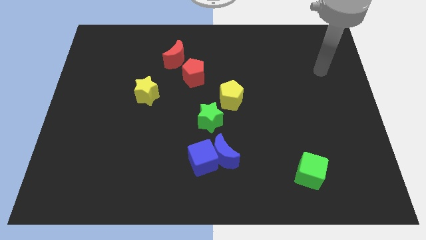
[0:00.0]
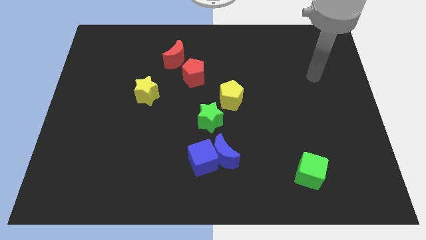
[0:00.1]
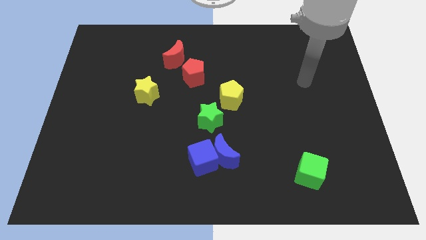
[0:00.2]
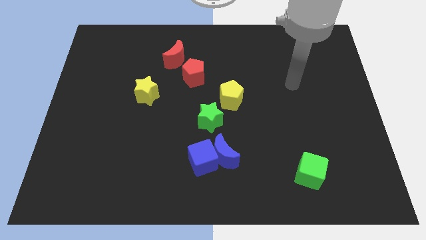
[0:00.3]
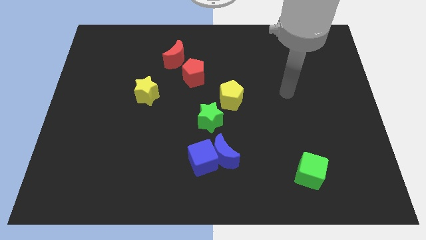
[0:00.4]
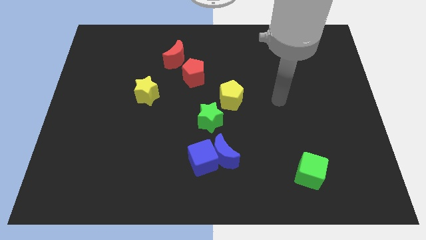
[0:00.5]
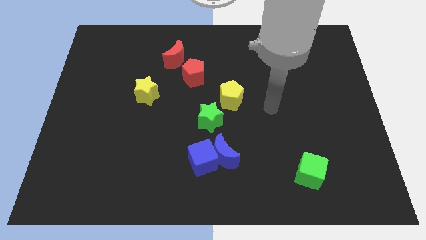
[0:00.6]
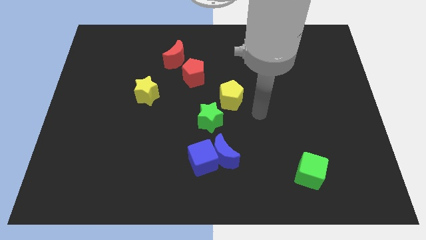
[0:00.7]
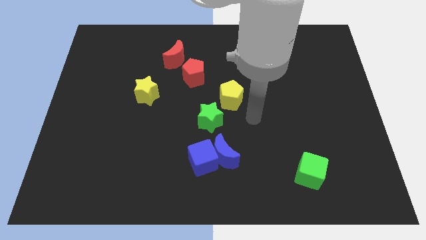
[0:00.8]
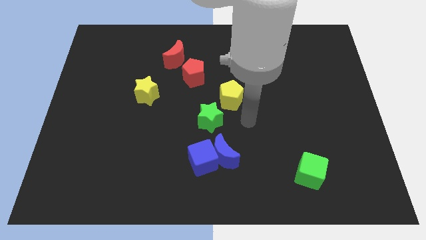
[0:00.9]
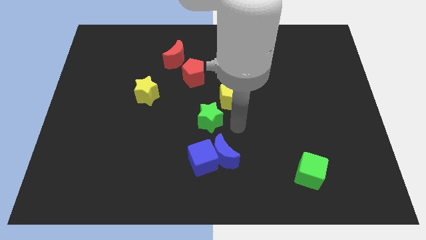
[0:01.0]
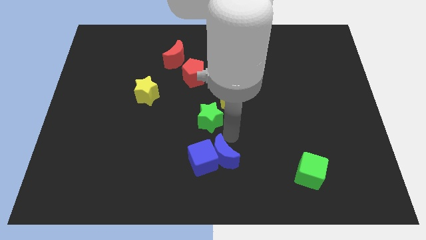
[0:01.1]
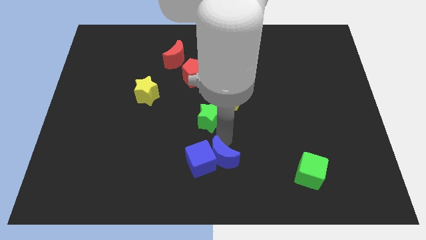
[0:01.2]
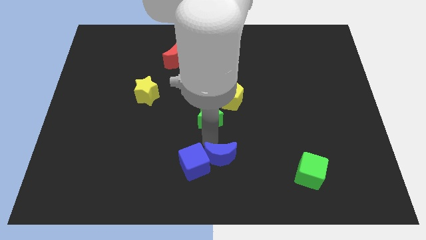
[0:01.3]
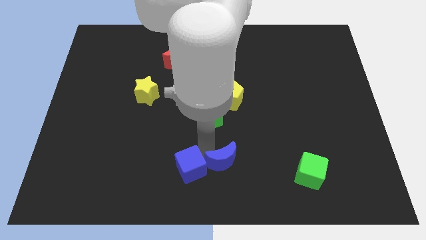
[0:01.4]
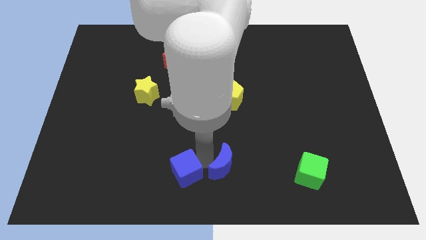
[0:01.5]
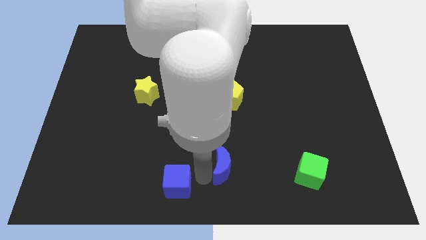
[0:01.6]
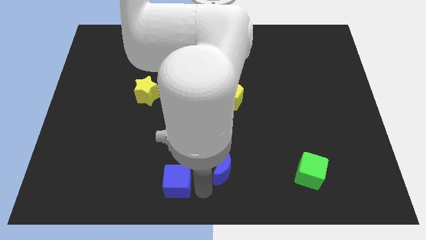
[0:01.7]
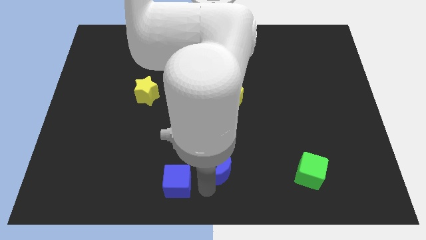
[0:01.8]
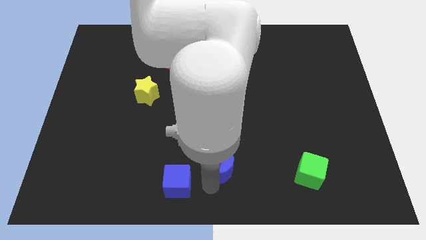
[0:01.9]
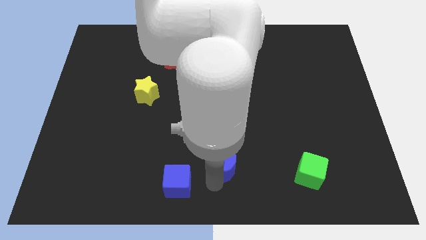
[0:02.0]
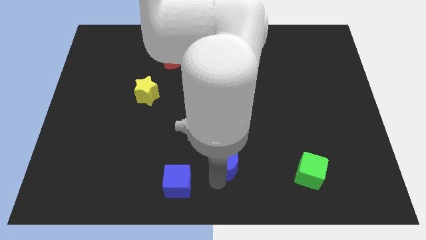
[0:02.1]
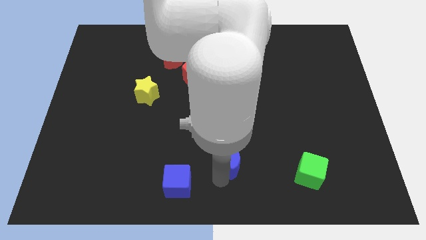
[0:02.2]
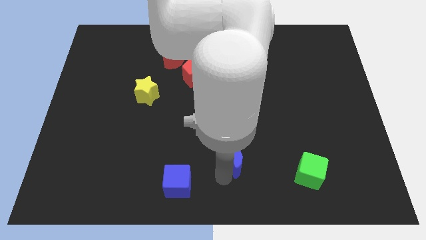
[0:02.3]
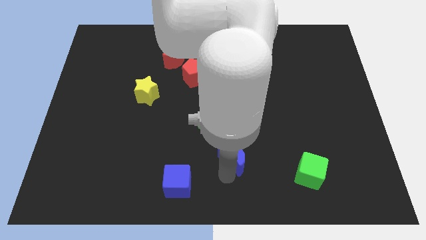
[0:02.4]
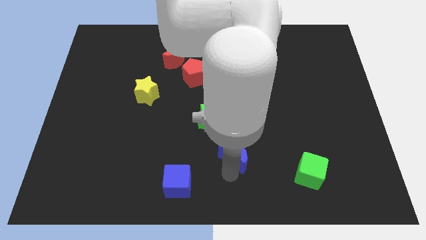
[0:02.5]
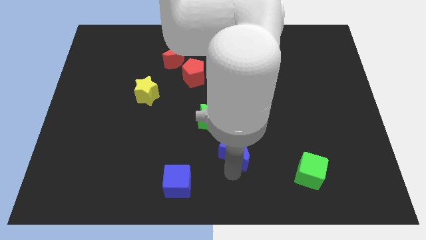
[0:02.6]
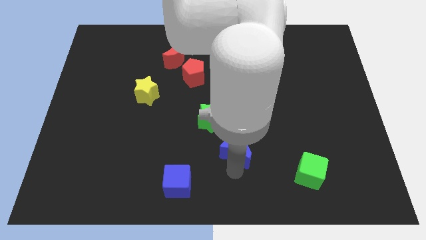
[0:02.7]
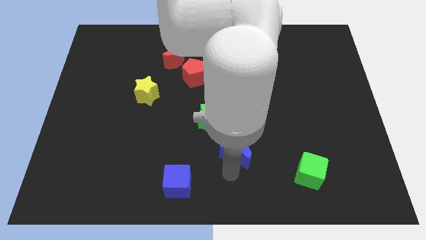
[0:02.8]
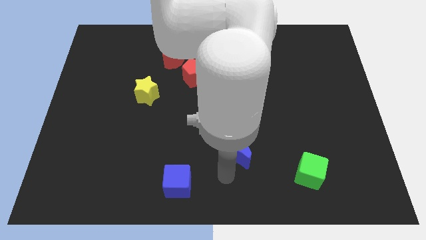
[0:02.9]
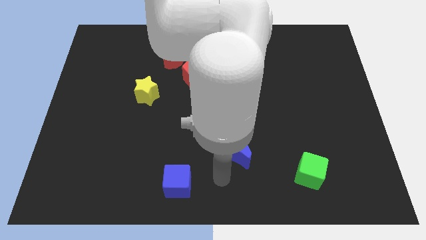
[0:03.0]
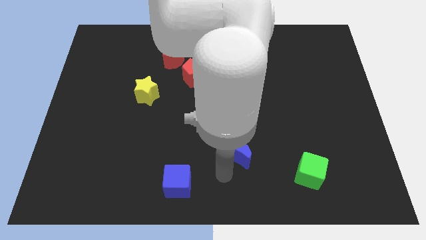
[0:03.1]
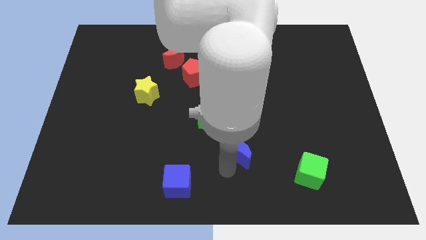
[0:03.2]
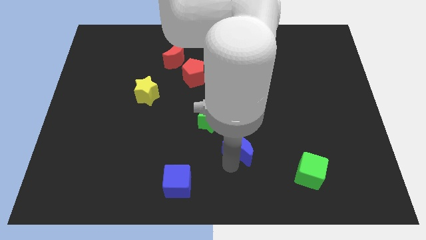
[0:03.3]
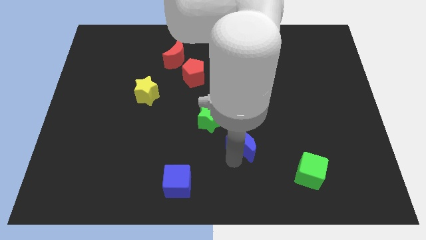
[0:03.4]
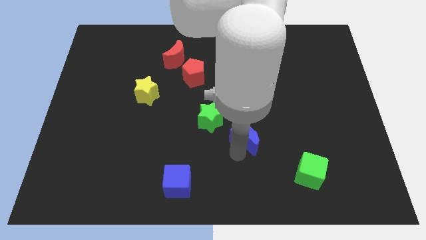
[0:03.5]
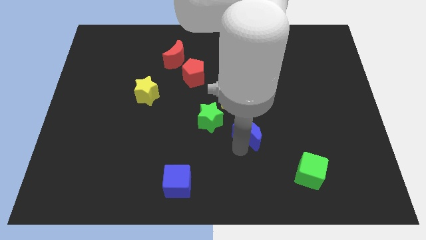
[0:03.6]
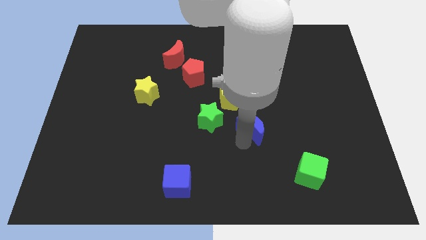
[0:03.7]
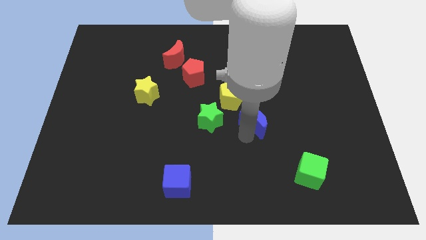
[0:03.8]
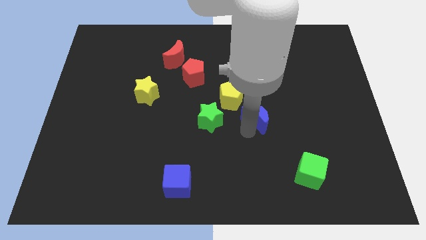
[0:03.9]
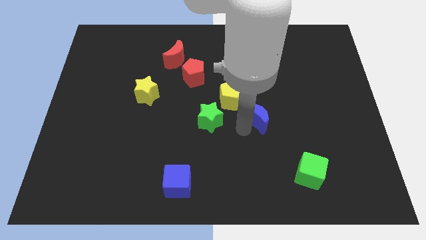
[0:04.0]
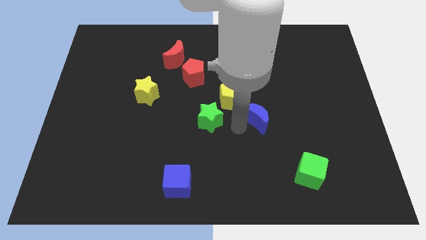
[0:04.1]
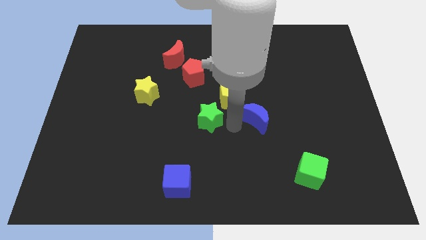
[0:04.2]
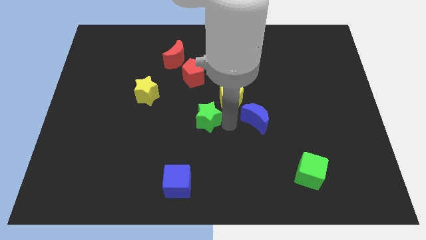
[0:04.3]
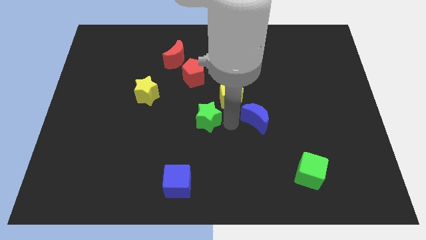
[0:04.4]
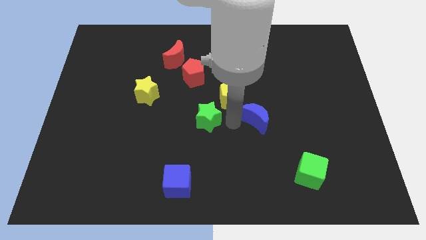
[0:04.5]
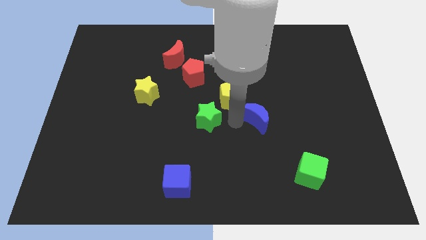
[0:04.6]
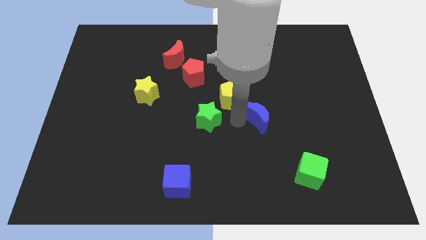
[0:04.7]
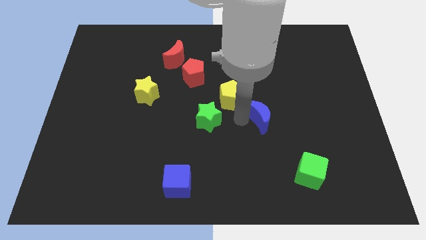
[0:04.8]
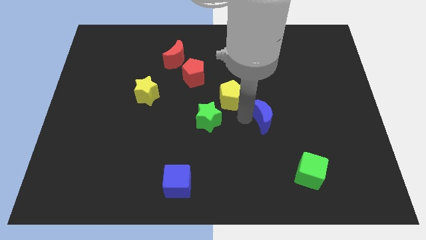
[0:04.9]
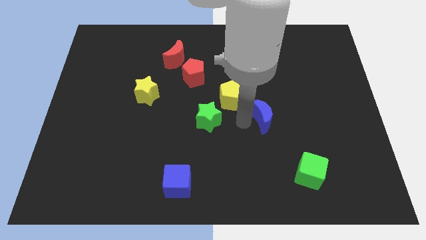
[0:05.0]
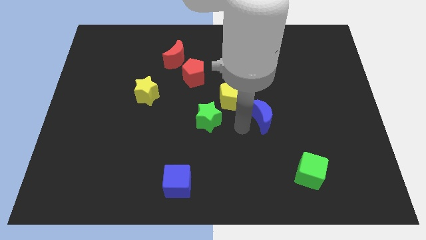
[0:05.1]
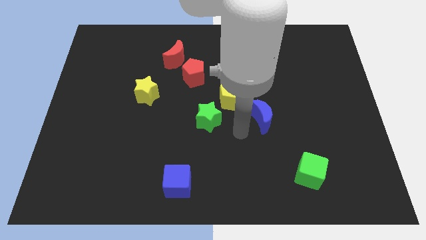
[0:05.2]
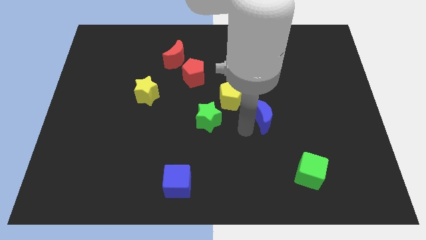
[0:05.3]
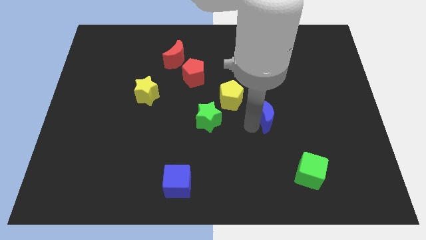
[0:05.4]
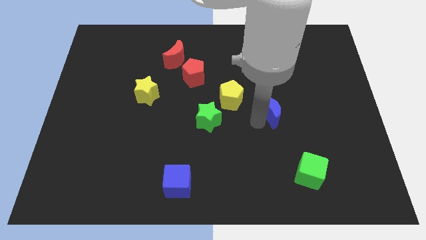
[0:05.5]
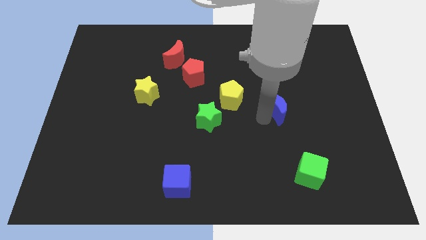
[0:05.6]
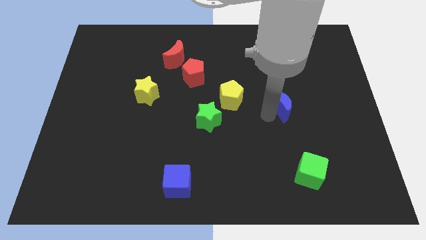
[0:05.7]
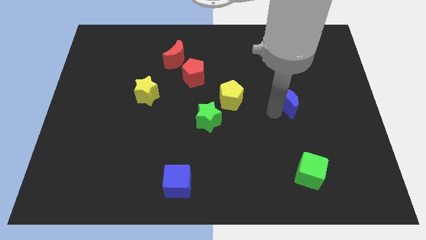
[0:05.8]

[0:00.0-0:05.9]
slide the blue moon up and right

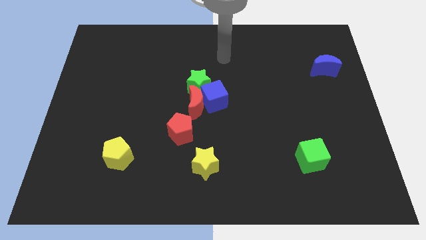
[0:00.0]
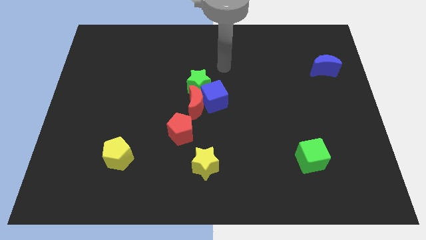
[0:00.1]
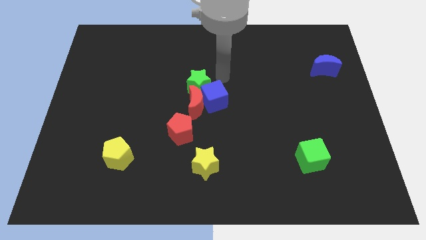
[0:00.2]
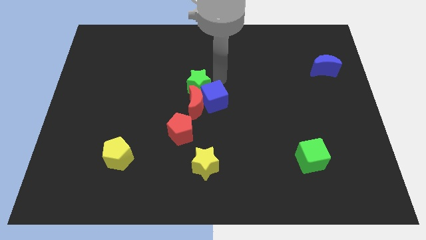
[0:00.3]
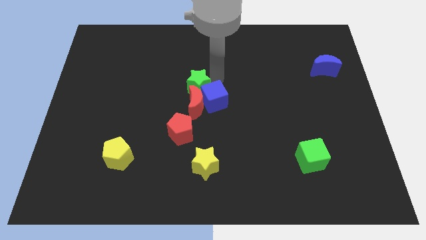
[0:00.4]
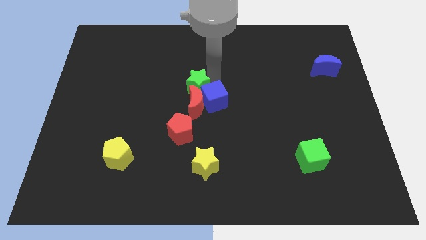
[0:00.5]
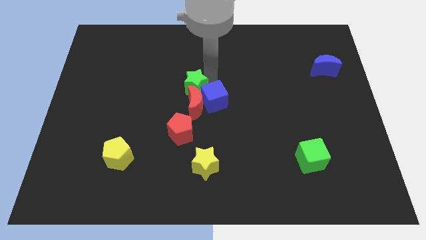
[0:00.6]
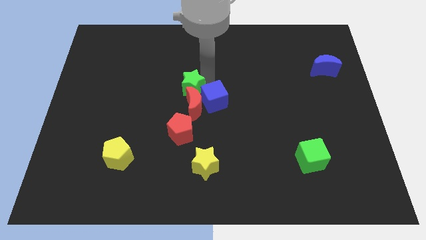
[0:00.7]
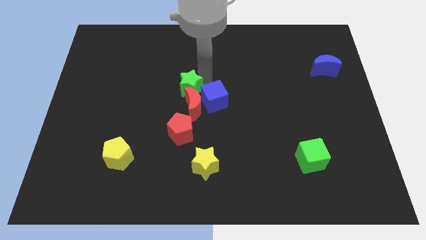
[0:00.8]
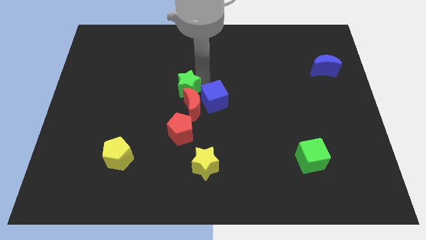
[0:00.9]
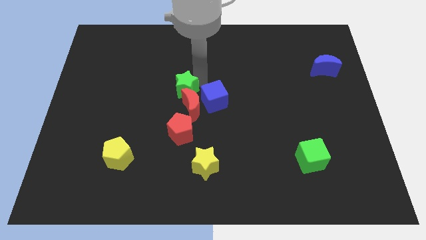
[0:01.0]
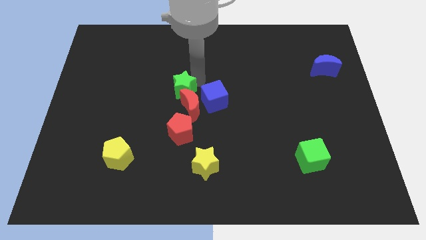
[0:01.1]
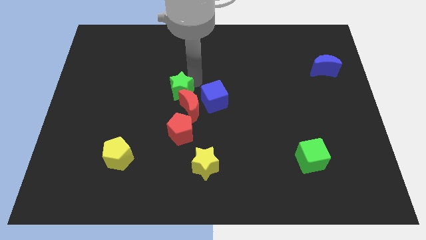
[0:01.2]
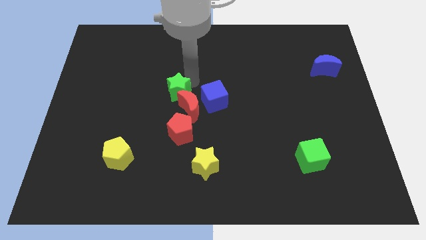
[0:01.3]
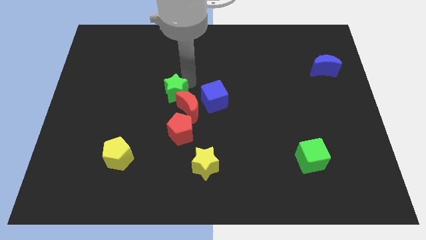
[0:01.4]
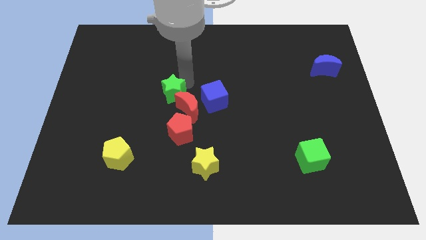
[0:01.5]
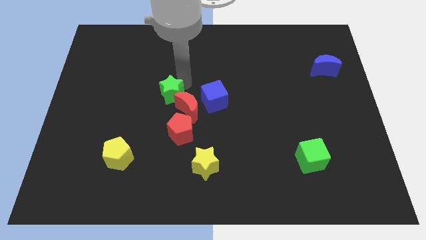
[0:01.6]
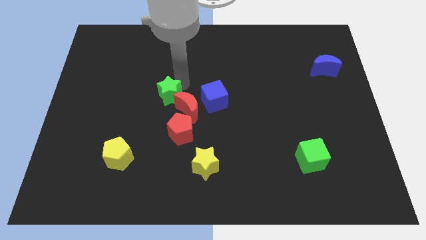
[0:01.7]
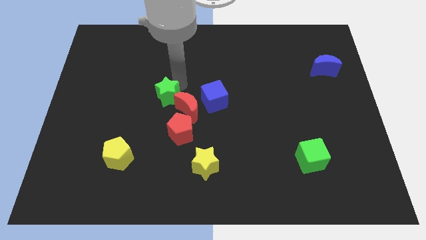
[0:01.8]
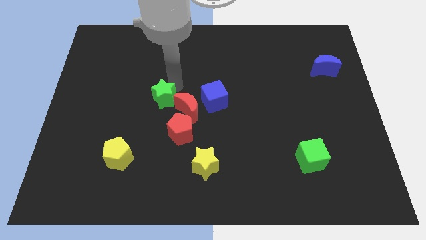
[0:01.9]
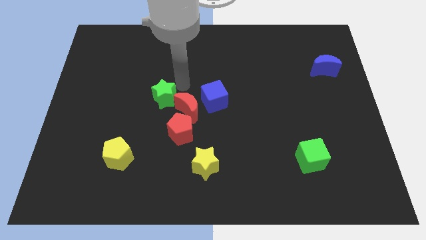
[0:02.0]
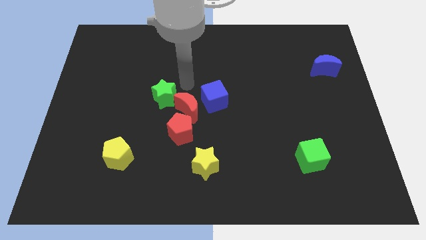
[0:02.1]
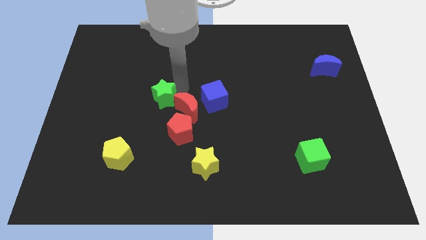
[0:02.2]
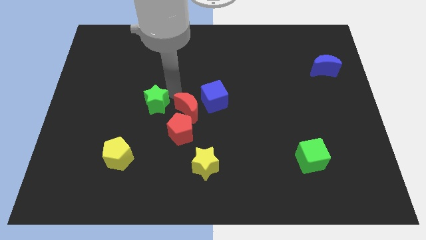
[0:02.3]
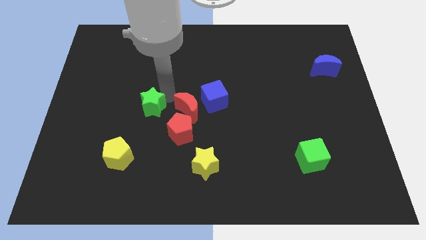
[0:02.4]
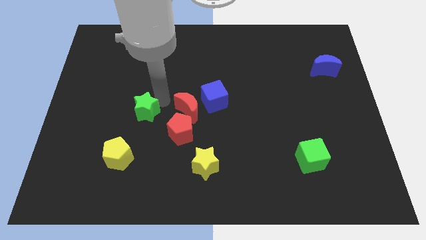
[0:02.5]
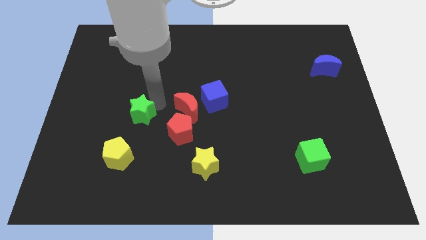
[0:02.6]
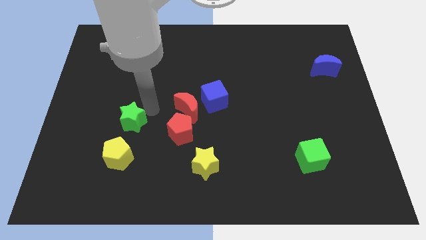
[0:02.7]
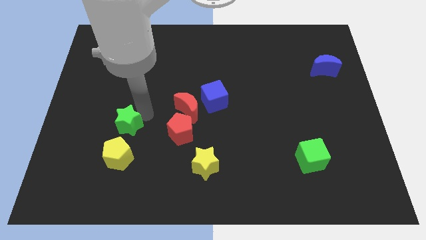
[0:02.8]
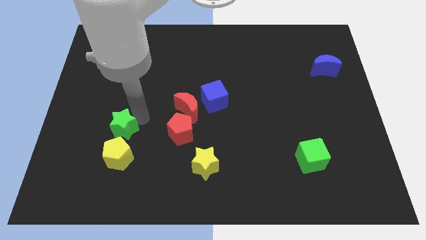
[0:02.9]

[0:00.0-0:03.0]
push the green star down and left diagonally
